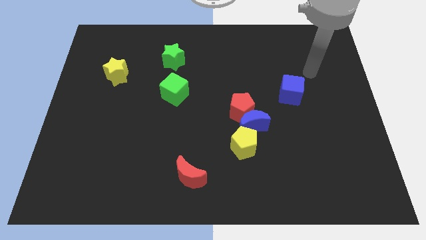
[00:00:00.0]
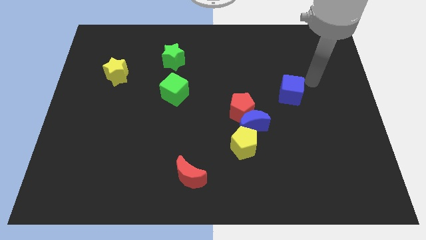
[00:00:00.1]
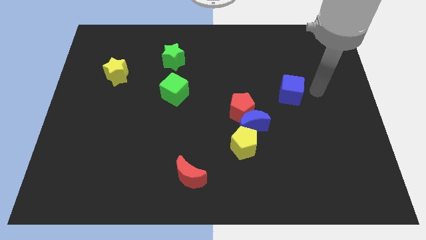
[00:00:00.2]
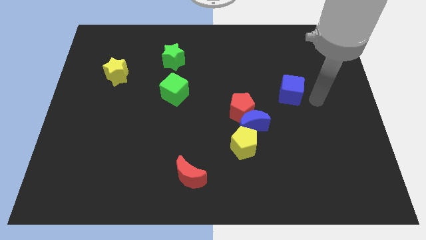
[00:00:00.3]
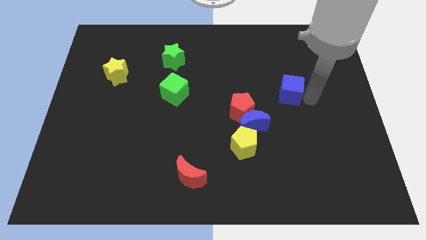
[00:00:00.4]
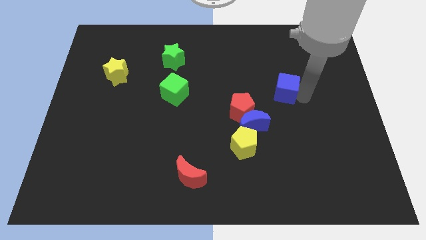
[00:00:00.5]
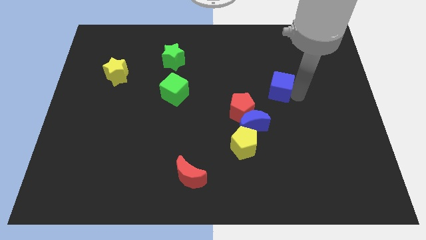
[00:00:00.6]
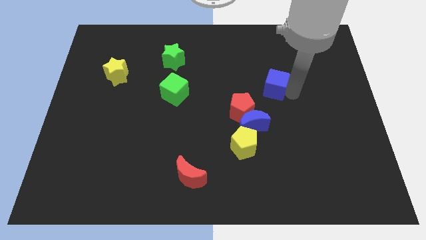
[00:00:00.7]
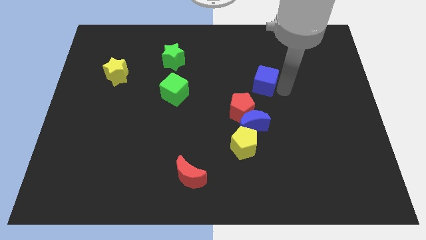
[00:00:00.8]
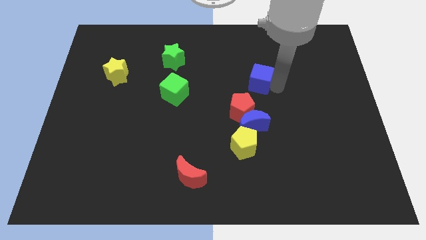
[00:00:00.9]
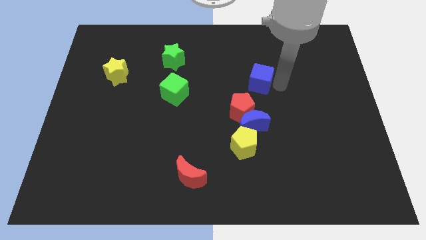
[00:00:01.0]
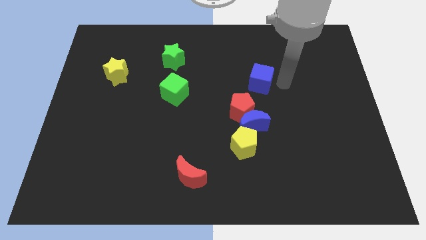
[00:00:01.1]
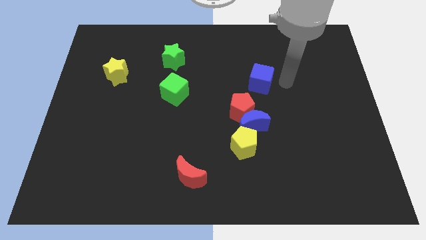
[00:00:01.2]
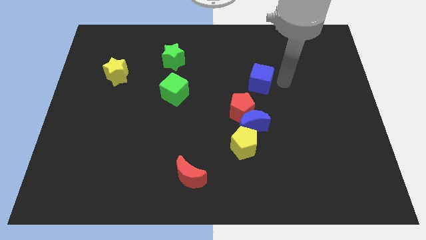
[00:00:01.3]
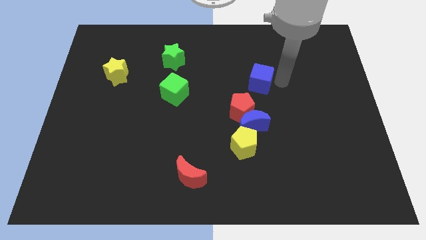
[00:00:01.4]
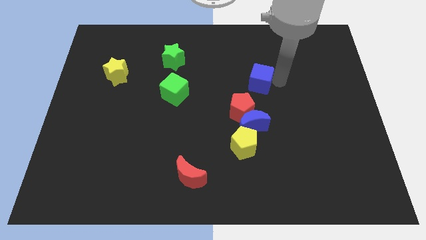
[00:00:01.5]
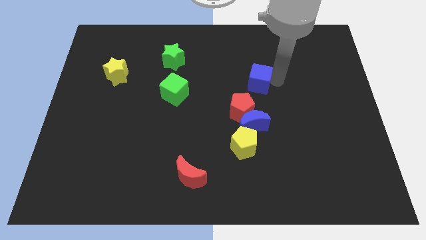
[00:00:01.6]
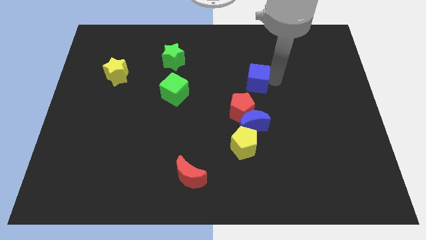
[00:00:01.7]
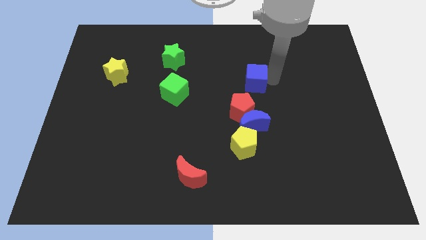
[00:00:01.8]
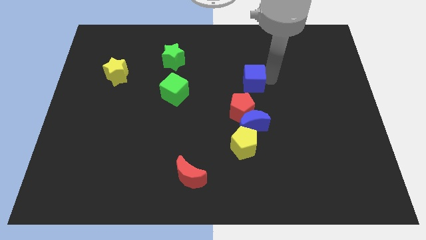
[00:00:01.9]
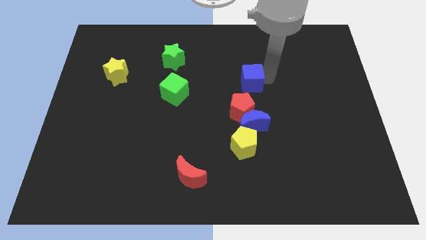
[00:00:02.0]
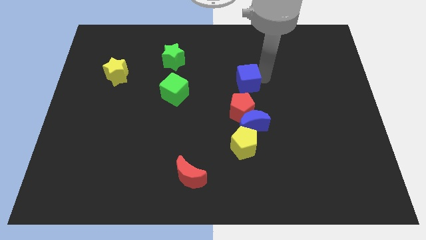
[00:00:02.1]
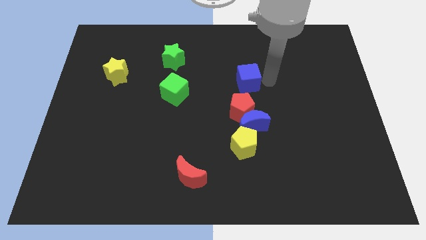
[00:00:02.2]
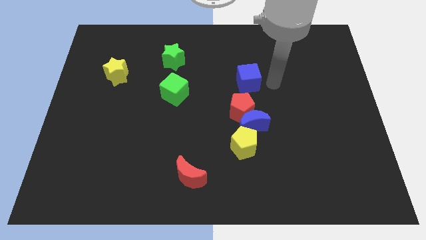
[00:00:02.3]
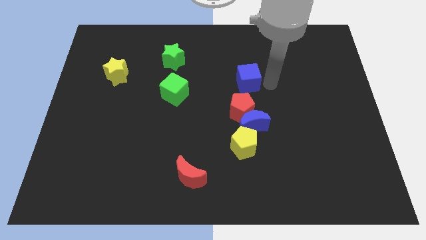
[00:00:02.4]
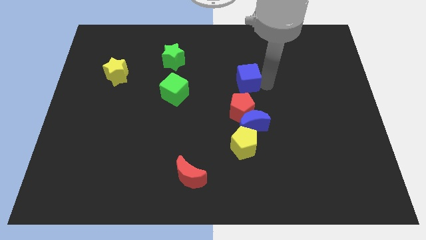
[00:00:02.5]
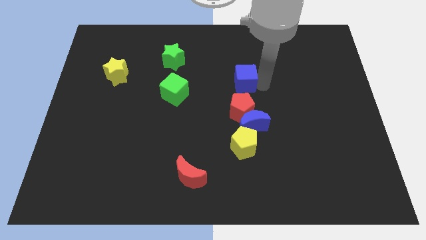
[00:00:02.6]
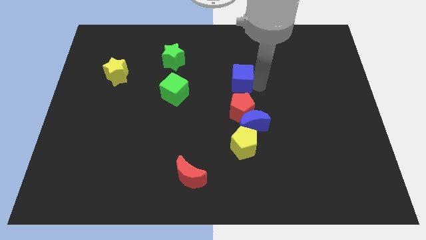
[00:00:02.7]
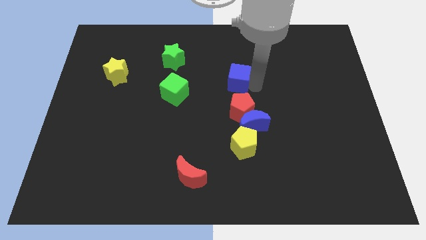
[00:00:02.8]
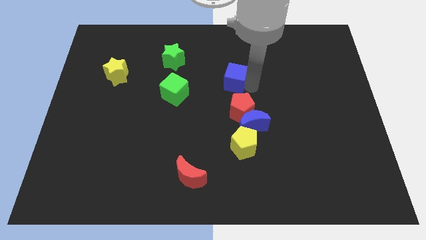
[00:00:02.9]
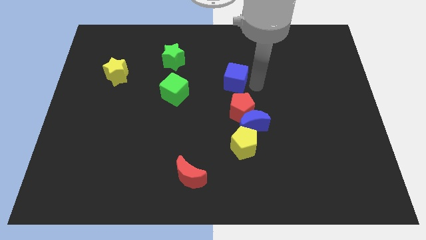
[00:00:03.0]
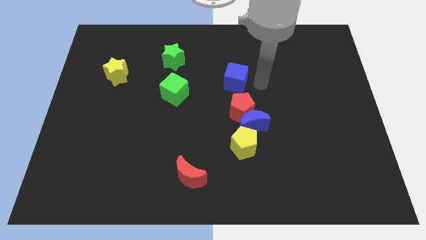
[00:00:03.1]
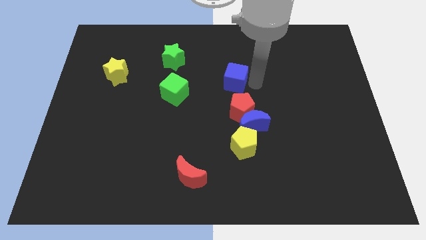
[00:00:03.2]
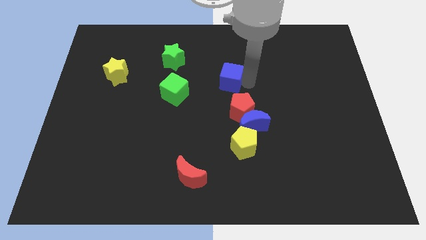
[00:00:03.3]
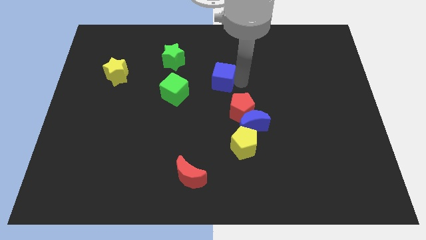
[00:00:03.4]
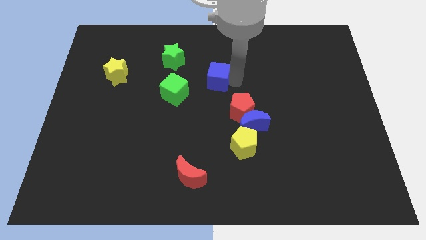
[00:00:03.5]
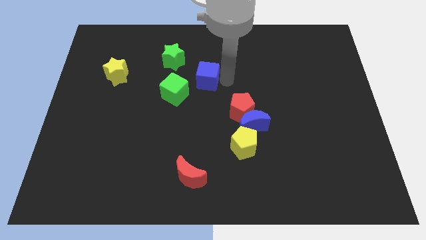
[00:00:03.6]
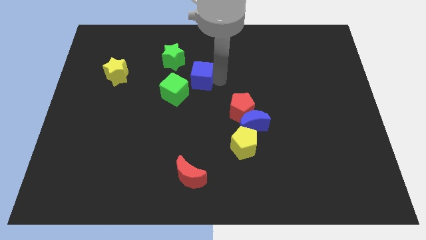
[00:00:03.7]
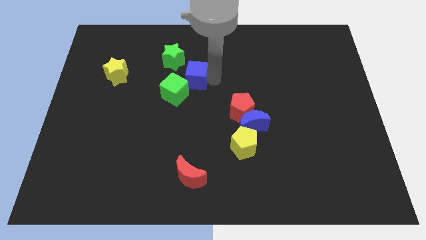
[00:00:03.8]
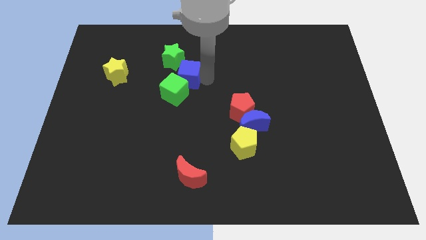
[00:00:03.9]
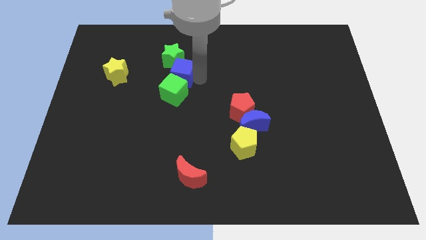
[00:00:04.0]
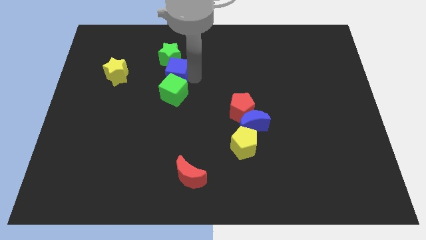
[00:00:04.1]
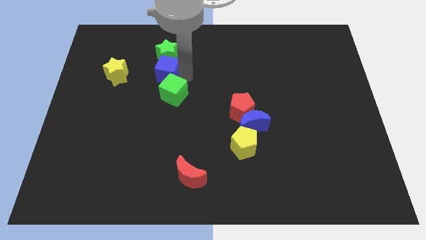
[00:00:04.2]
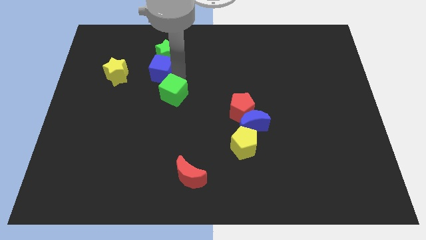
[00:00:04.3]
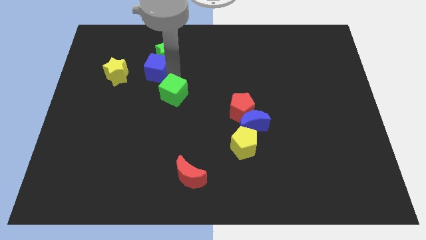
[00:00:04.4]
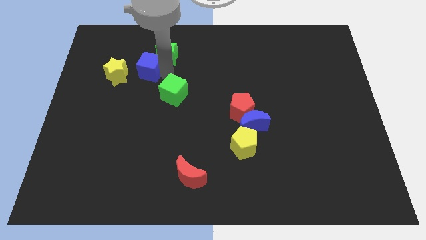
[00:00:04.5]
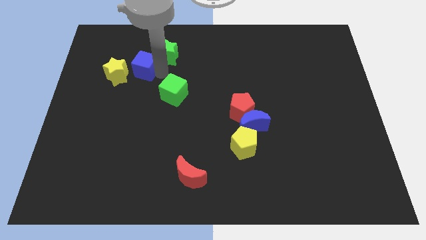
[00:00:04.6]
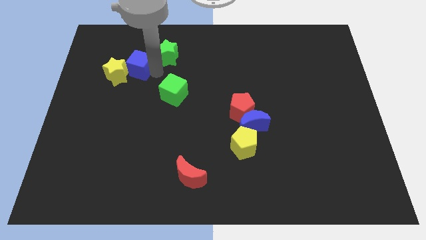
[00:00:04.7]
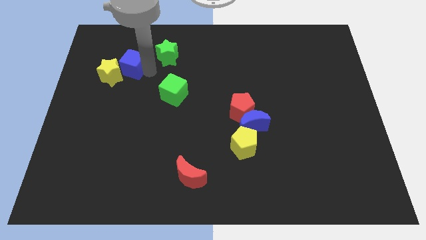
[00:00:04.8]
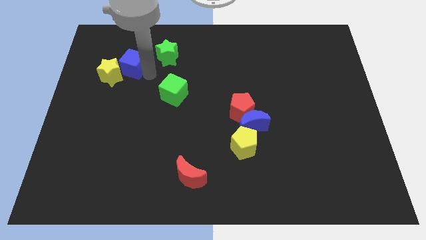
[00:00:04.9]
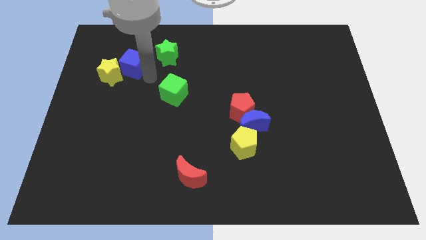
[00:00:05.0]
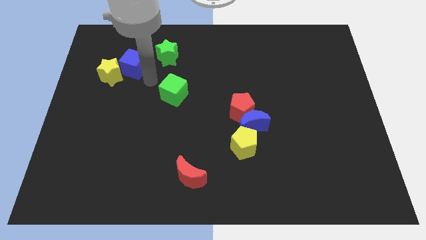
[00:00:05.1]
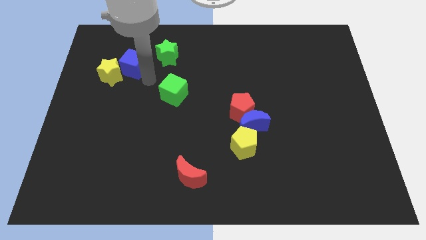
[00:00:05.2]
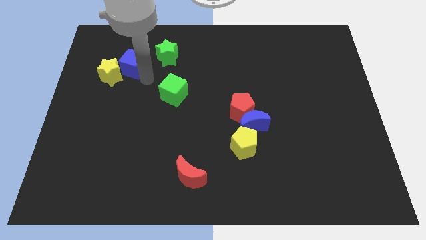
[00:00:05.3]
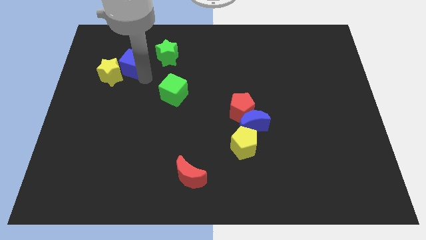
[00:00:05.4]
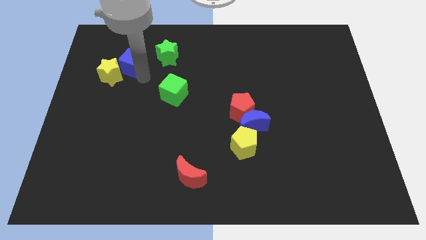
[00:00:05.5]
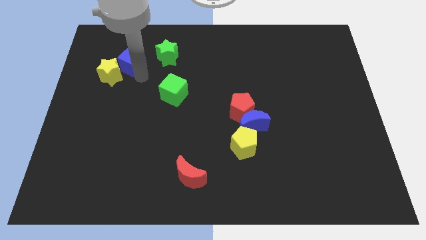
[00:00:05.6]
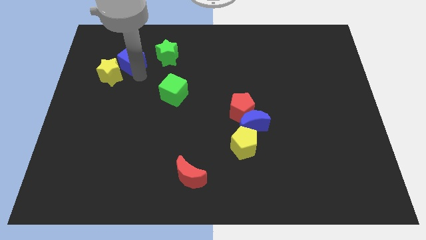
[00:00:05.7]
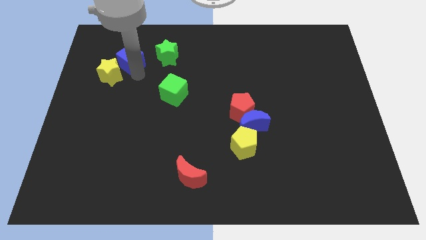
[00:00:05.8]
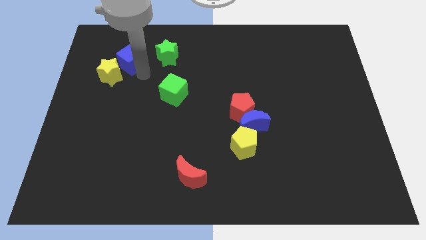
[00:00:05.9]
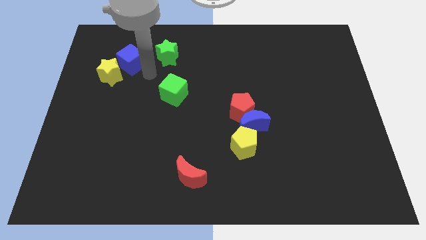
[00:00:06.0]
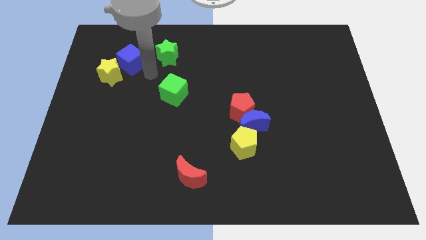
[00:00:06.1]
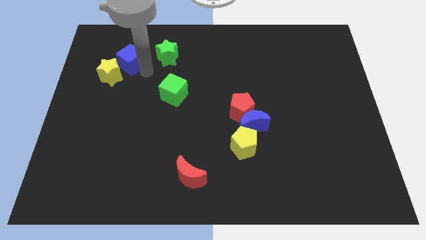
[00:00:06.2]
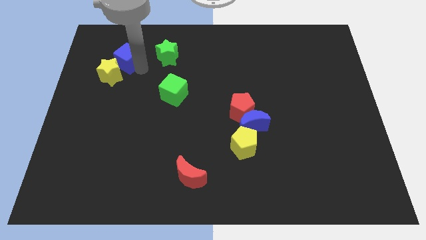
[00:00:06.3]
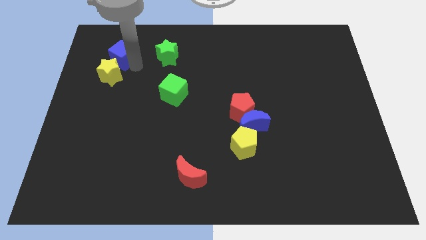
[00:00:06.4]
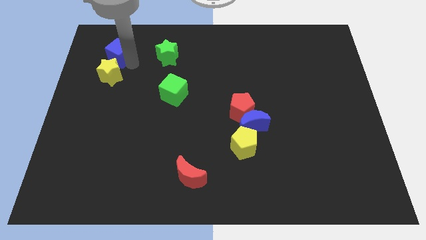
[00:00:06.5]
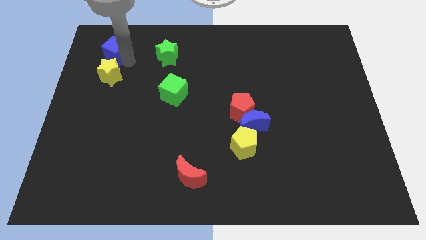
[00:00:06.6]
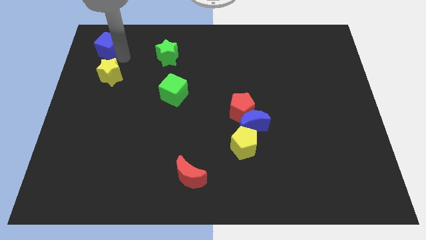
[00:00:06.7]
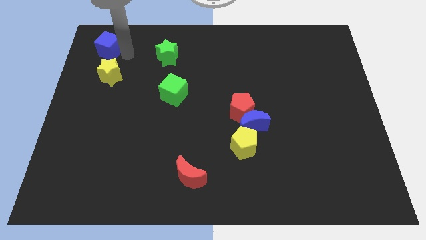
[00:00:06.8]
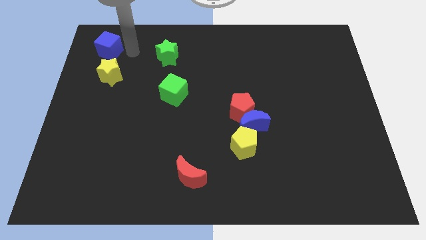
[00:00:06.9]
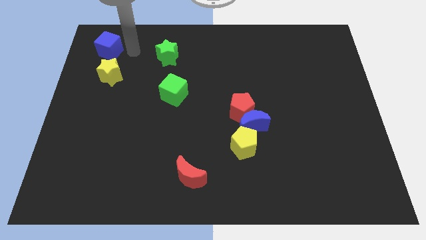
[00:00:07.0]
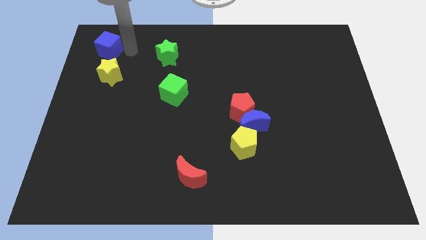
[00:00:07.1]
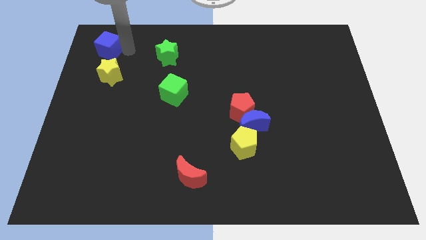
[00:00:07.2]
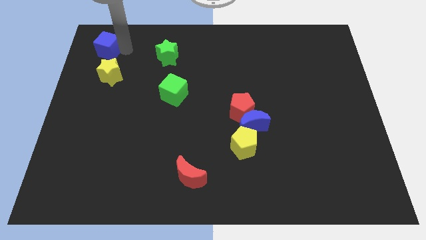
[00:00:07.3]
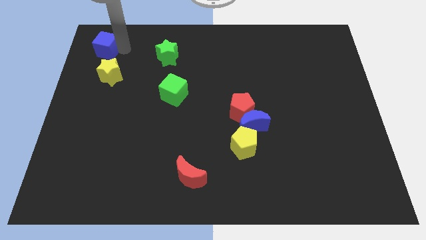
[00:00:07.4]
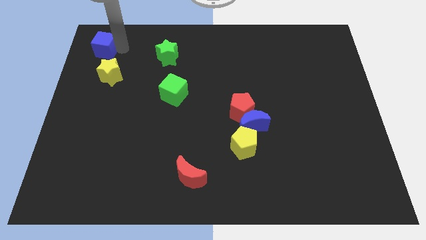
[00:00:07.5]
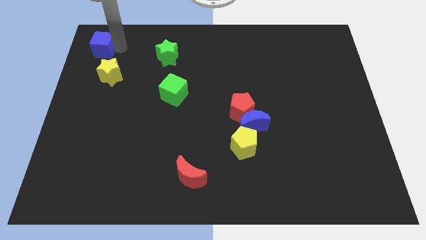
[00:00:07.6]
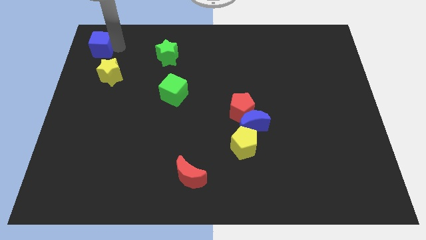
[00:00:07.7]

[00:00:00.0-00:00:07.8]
put the blue cube to the top left corner
